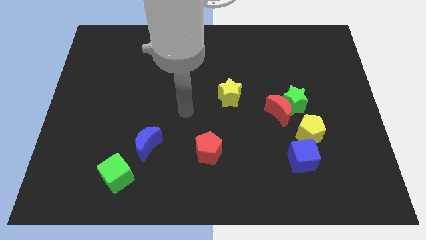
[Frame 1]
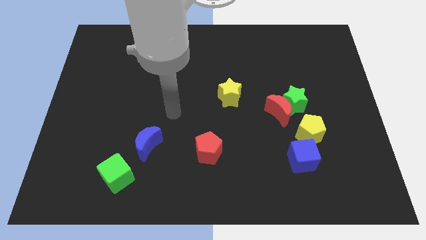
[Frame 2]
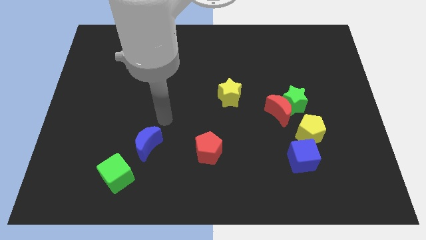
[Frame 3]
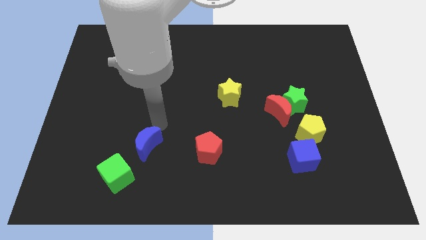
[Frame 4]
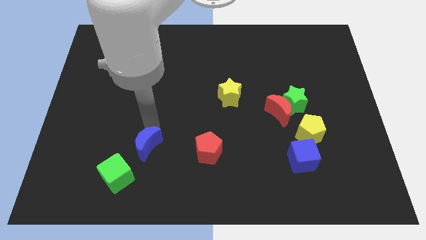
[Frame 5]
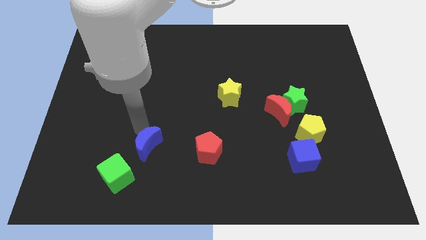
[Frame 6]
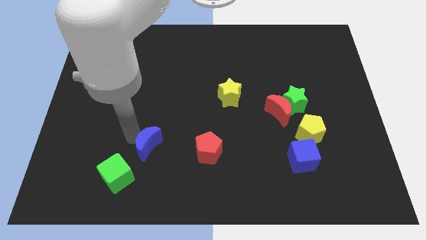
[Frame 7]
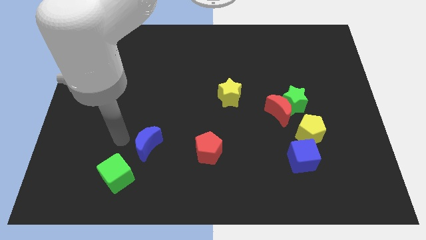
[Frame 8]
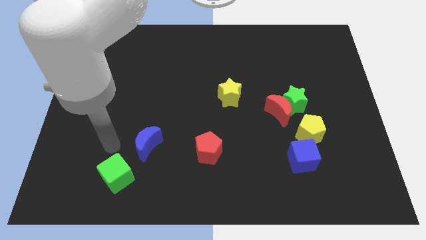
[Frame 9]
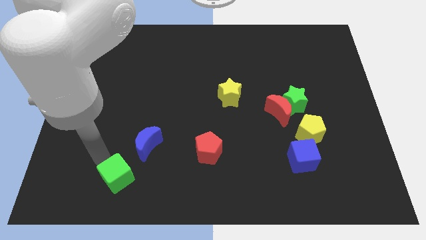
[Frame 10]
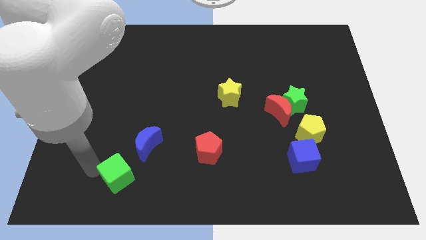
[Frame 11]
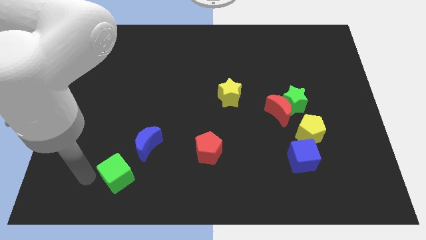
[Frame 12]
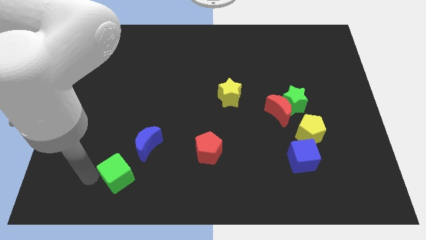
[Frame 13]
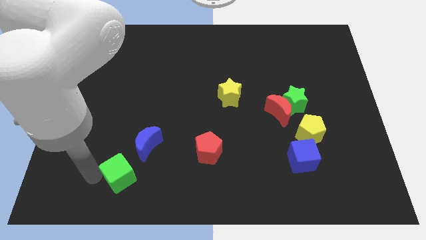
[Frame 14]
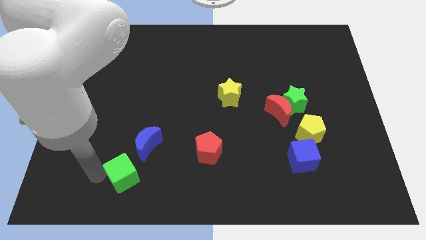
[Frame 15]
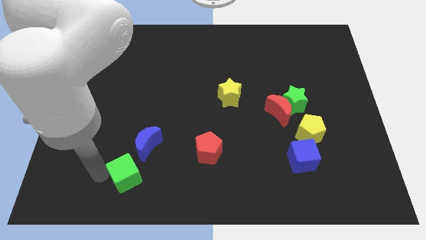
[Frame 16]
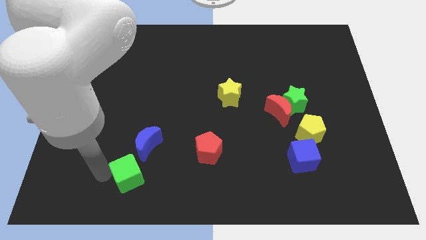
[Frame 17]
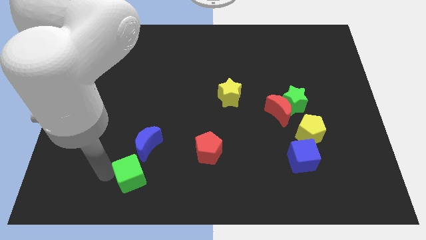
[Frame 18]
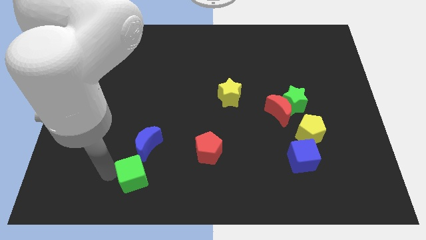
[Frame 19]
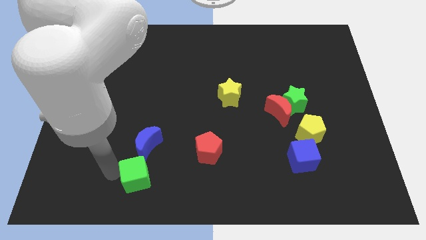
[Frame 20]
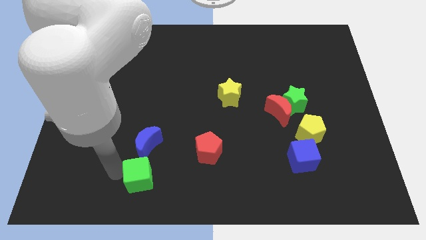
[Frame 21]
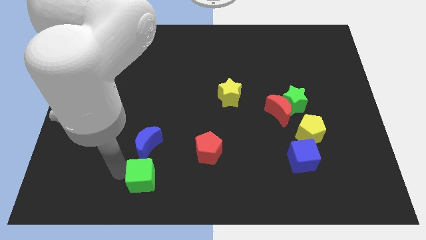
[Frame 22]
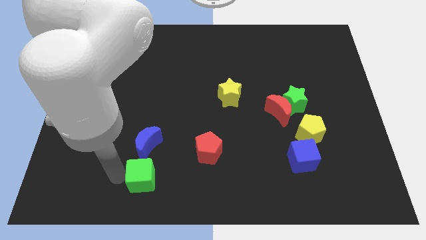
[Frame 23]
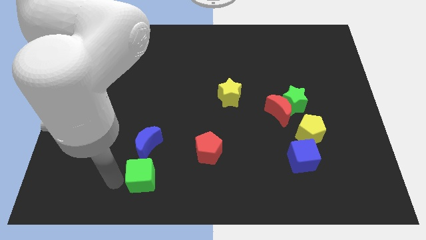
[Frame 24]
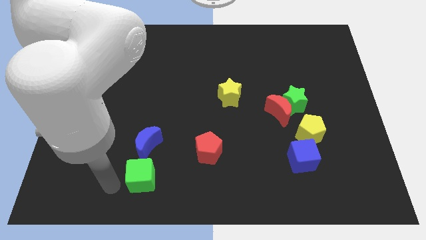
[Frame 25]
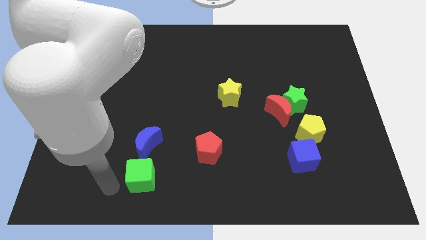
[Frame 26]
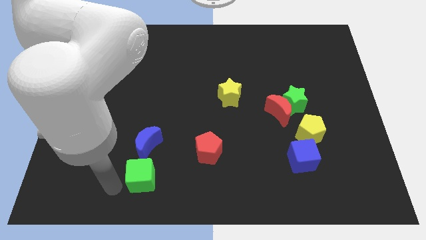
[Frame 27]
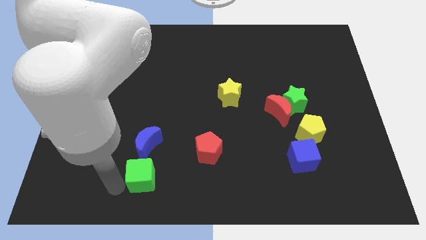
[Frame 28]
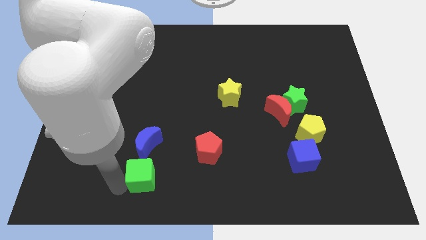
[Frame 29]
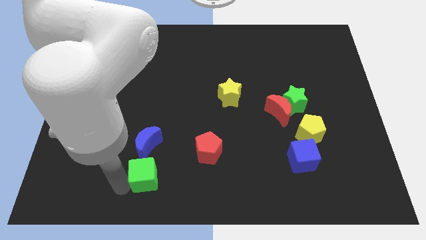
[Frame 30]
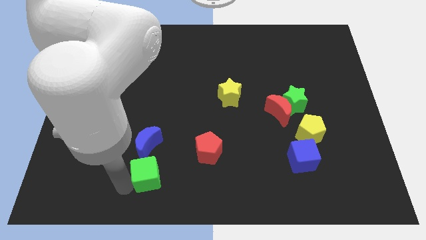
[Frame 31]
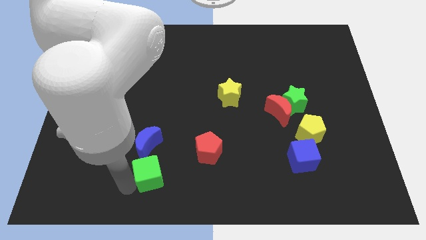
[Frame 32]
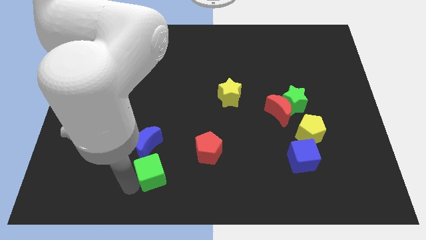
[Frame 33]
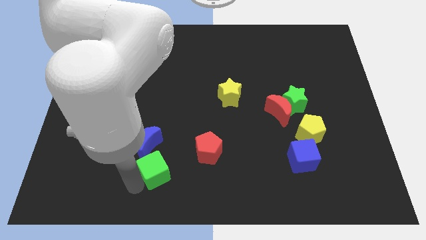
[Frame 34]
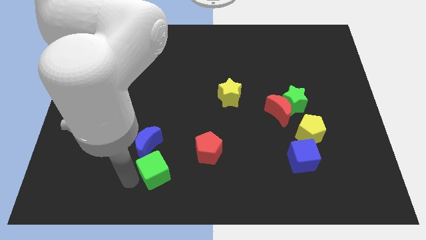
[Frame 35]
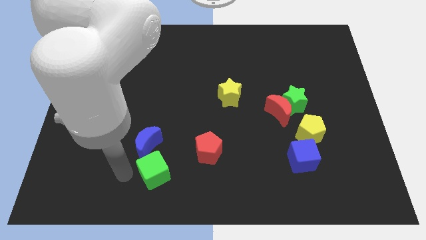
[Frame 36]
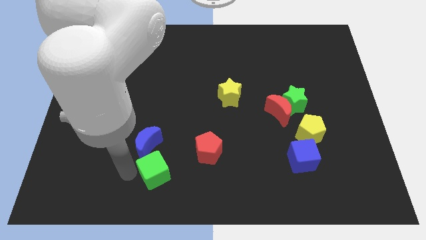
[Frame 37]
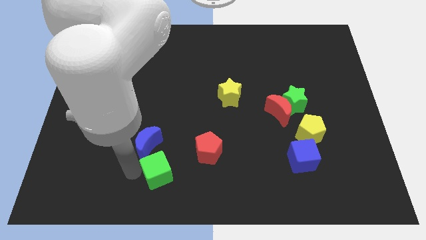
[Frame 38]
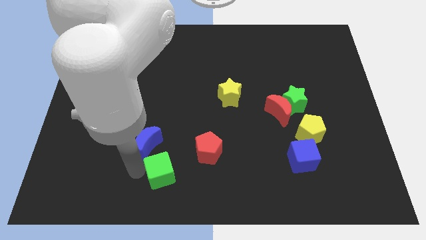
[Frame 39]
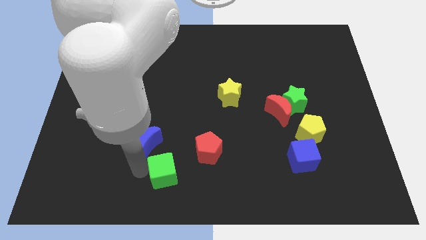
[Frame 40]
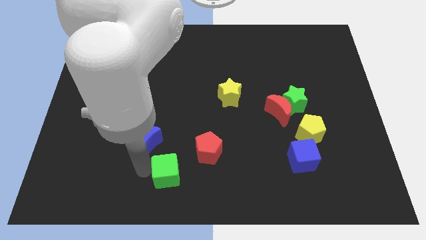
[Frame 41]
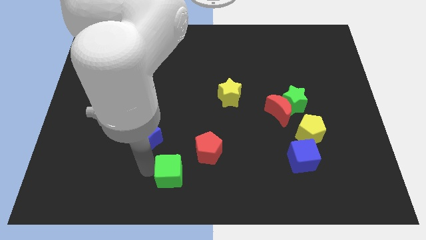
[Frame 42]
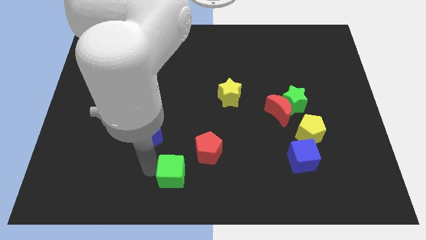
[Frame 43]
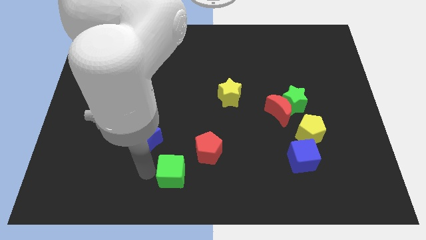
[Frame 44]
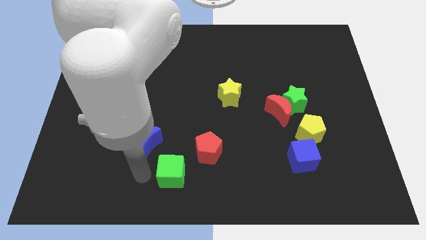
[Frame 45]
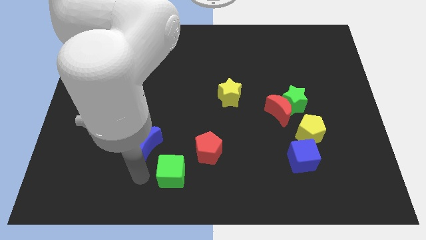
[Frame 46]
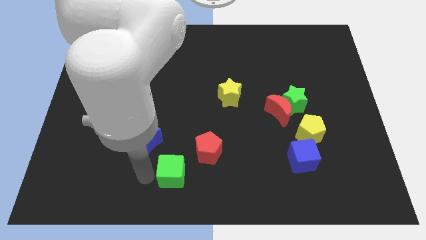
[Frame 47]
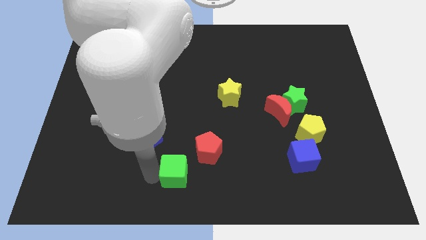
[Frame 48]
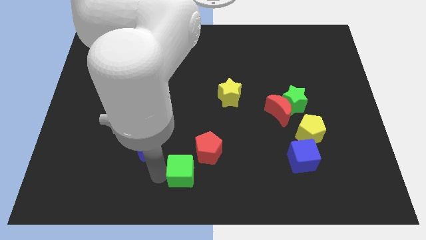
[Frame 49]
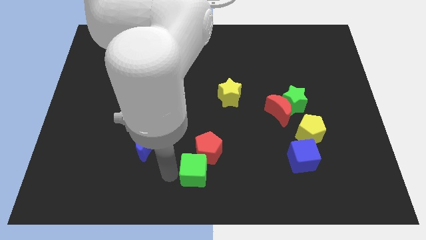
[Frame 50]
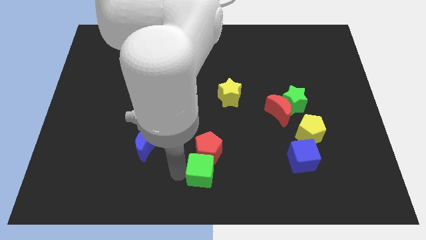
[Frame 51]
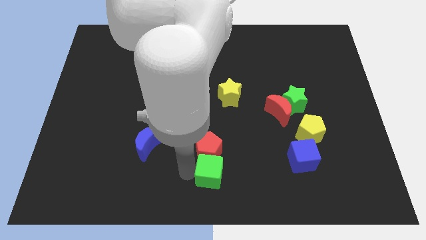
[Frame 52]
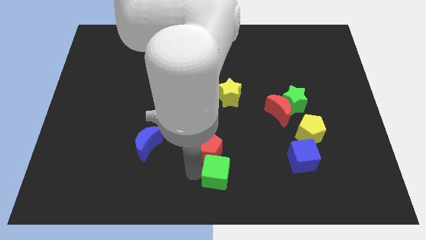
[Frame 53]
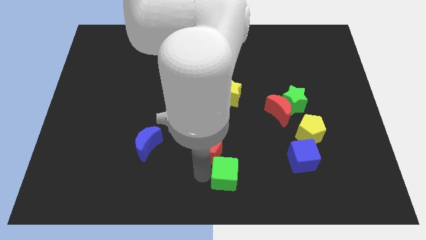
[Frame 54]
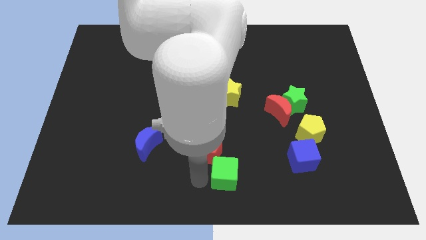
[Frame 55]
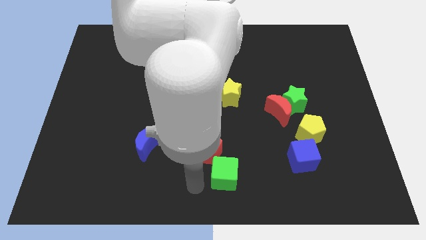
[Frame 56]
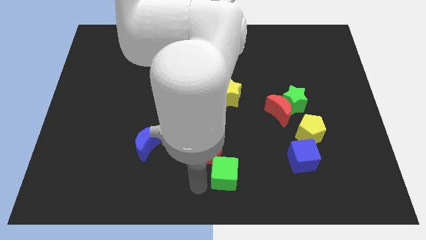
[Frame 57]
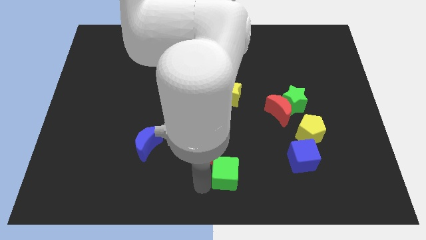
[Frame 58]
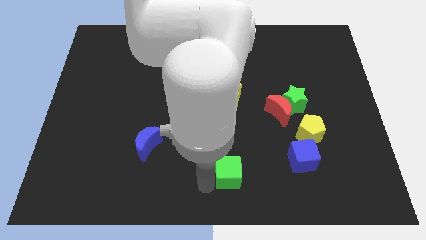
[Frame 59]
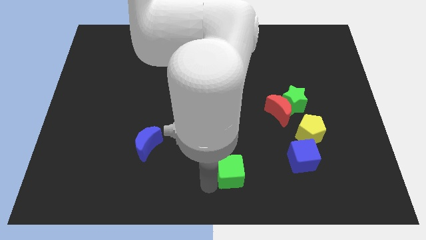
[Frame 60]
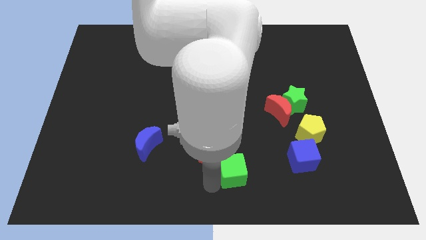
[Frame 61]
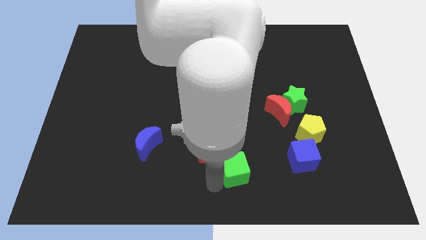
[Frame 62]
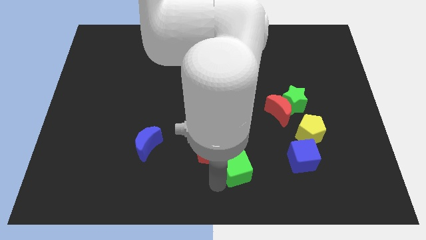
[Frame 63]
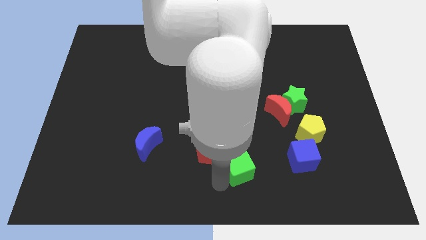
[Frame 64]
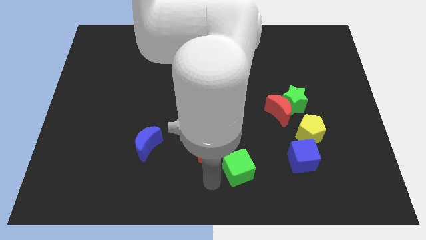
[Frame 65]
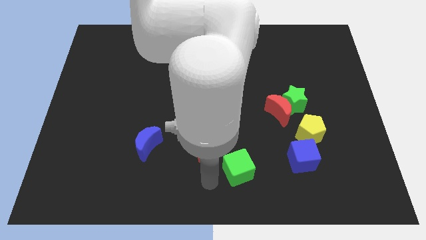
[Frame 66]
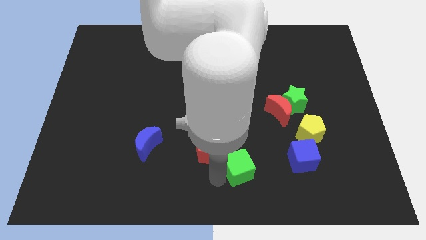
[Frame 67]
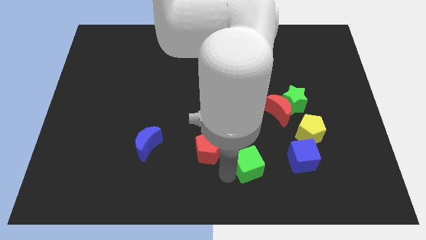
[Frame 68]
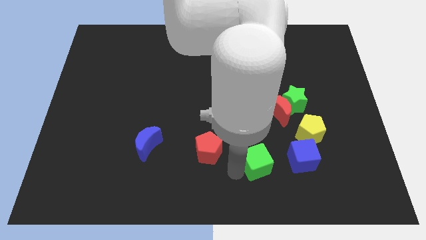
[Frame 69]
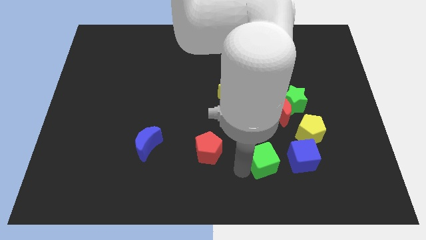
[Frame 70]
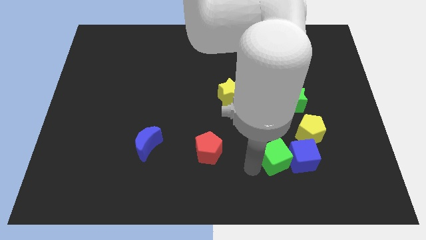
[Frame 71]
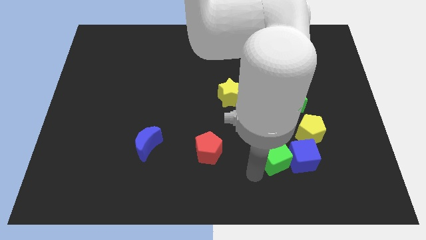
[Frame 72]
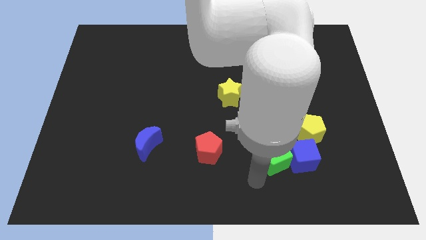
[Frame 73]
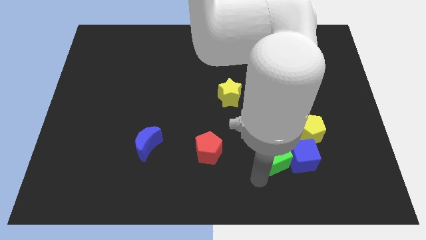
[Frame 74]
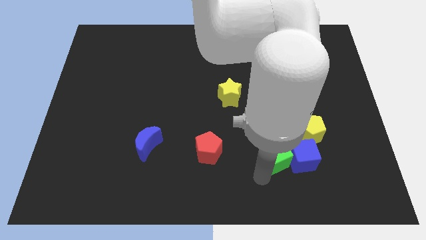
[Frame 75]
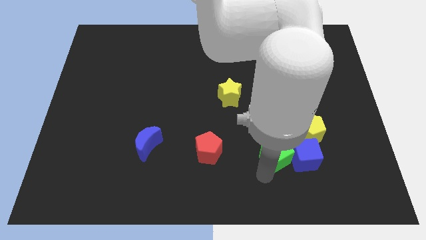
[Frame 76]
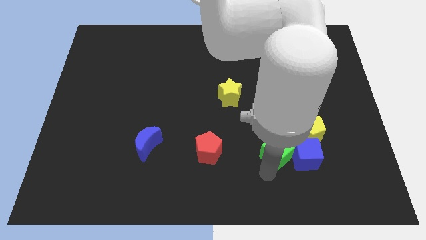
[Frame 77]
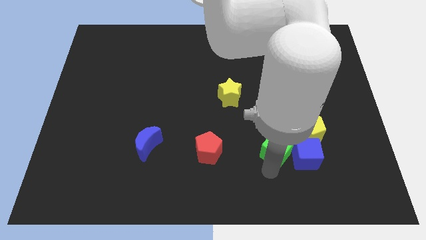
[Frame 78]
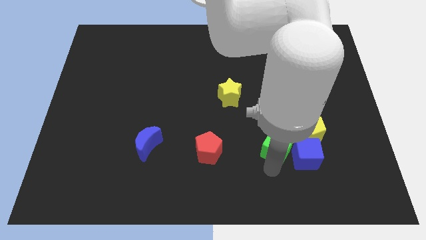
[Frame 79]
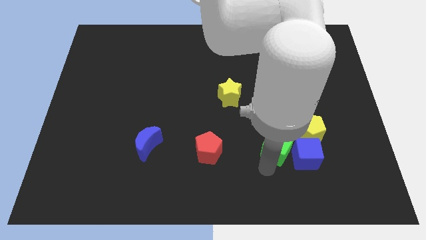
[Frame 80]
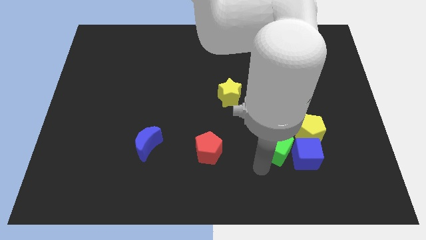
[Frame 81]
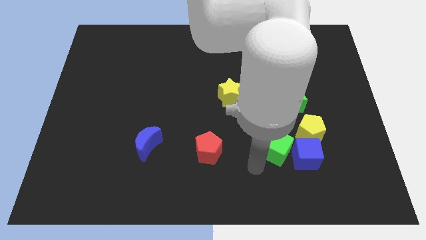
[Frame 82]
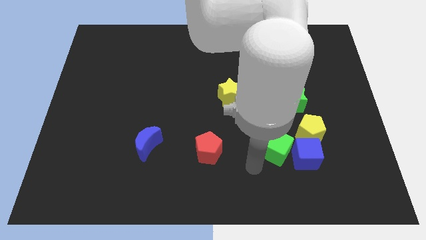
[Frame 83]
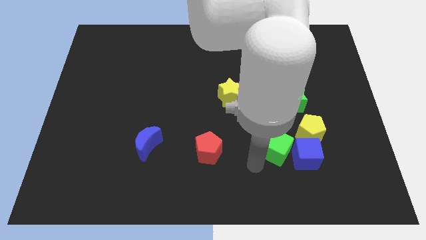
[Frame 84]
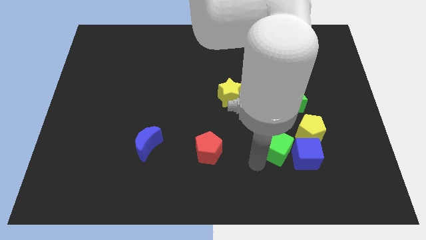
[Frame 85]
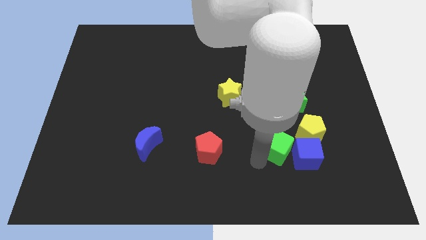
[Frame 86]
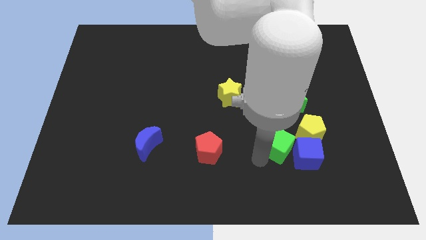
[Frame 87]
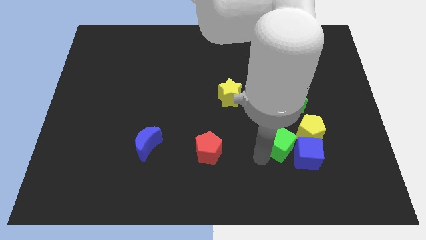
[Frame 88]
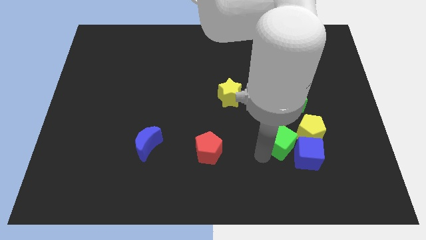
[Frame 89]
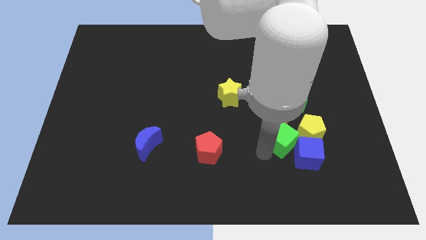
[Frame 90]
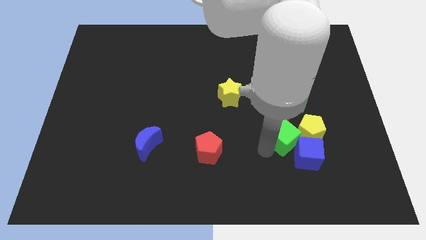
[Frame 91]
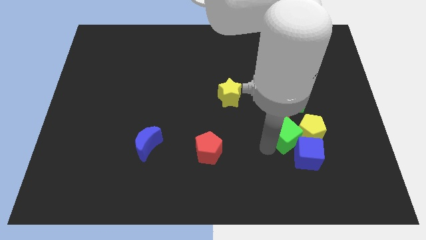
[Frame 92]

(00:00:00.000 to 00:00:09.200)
move the green cube to the yellow pentagon
